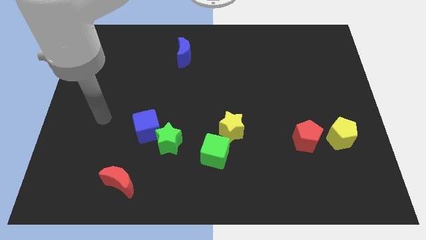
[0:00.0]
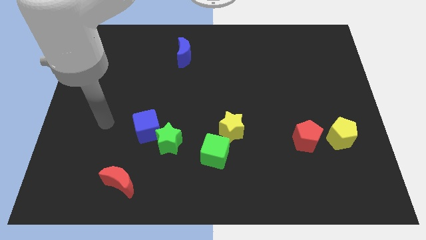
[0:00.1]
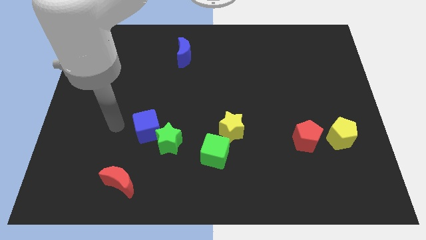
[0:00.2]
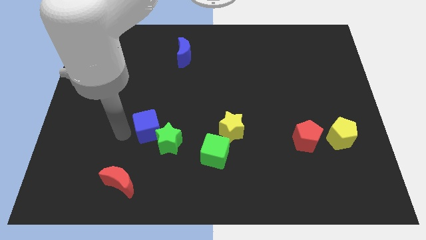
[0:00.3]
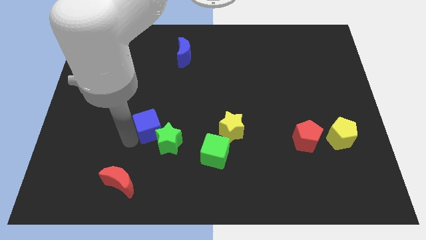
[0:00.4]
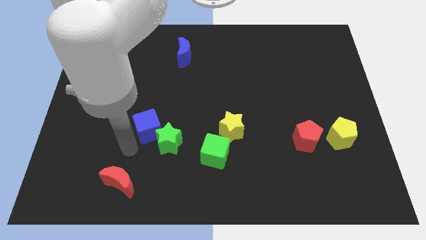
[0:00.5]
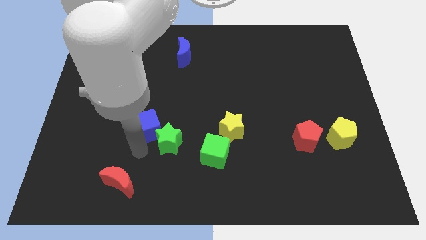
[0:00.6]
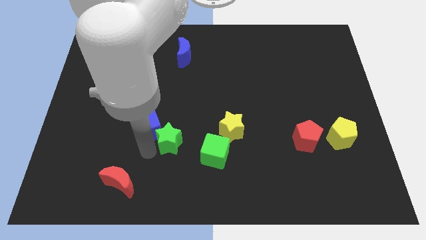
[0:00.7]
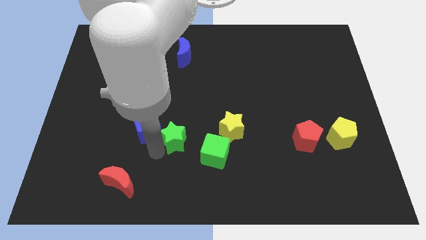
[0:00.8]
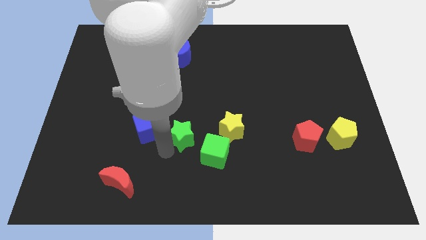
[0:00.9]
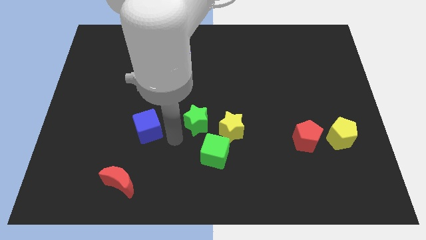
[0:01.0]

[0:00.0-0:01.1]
separate the blue cube from the green star

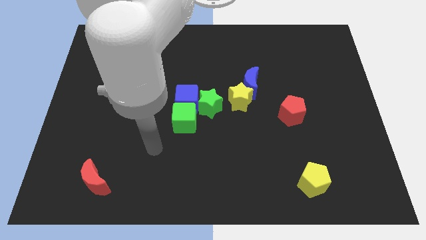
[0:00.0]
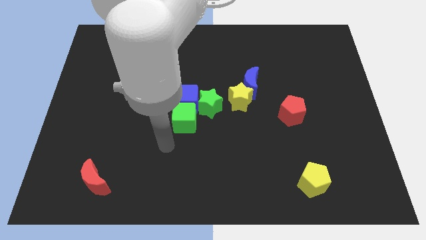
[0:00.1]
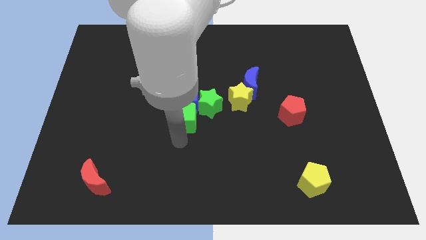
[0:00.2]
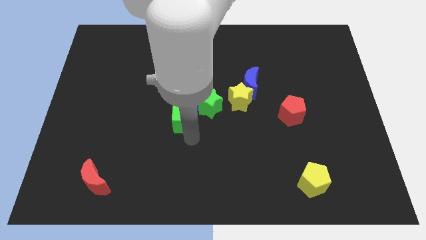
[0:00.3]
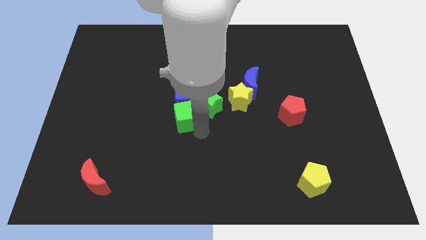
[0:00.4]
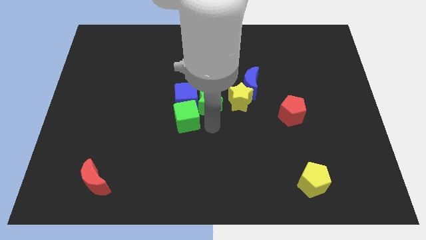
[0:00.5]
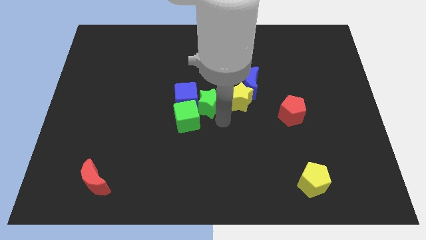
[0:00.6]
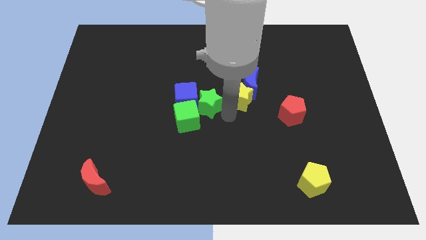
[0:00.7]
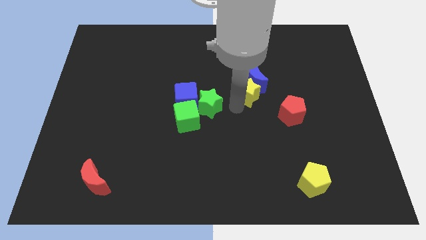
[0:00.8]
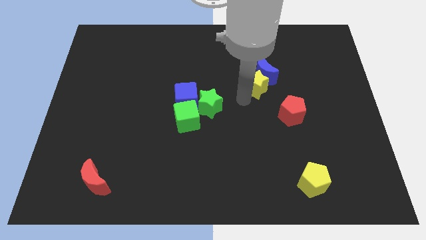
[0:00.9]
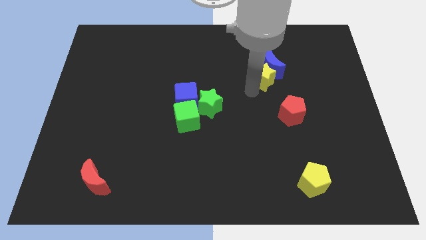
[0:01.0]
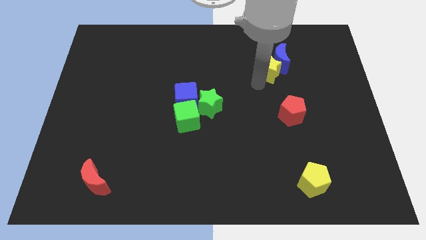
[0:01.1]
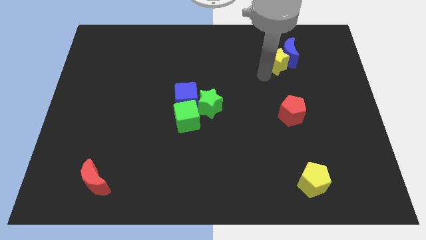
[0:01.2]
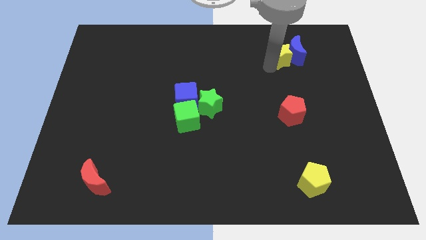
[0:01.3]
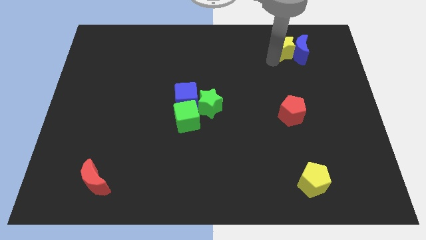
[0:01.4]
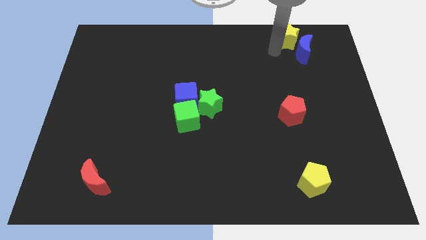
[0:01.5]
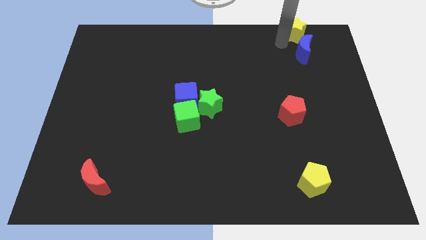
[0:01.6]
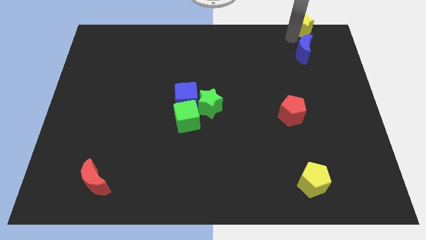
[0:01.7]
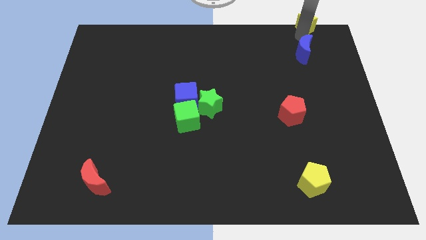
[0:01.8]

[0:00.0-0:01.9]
separate the blue moon from the yellow star

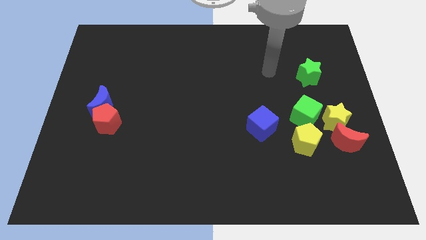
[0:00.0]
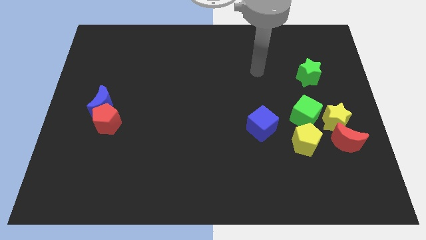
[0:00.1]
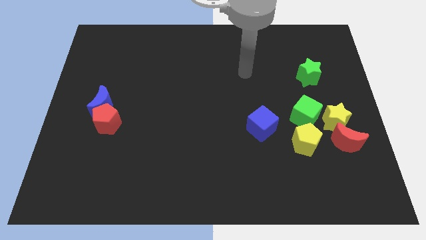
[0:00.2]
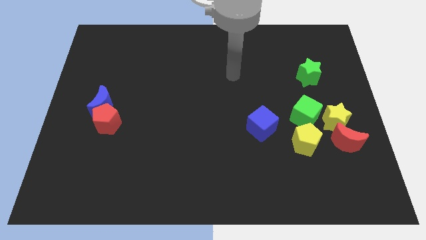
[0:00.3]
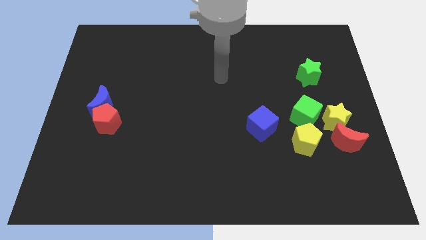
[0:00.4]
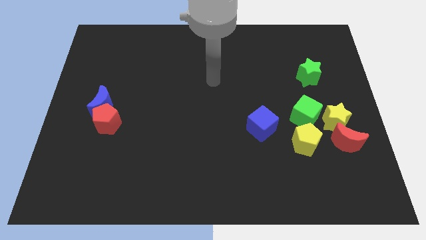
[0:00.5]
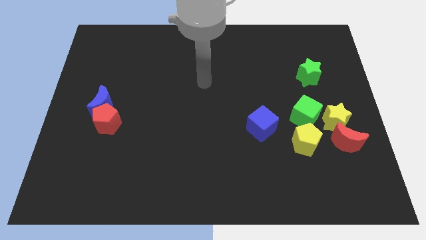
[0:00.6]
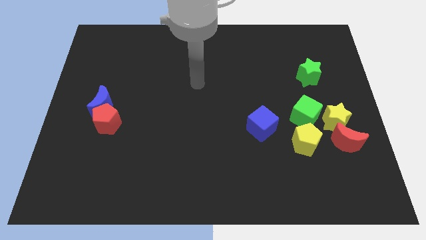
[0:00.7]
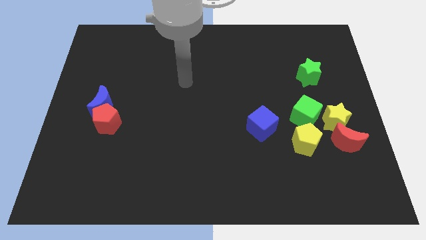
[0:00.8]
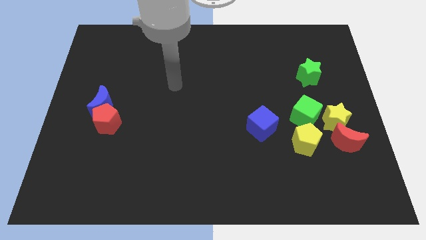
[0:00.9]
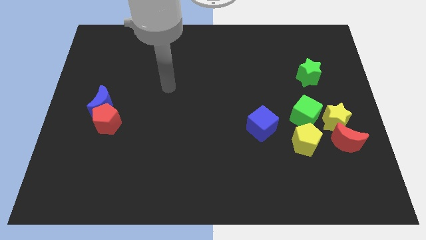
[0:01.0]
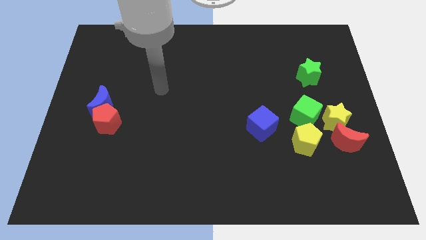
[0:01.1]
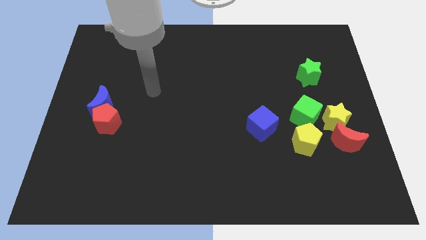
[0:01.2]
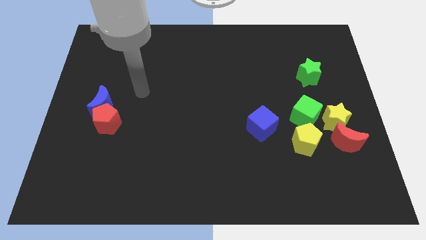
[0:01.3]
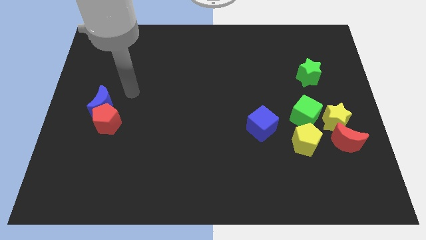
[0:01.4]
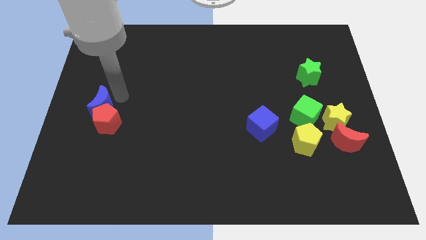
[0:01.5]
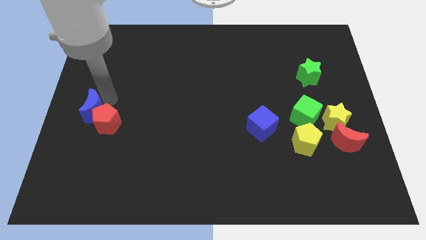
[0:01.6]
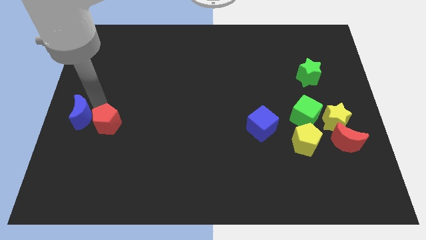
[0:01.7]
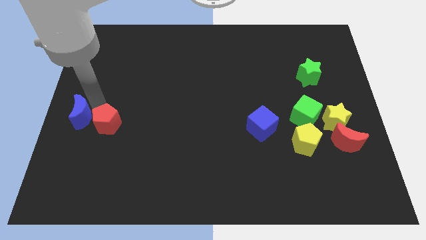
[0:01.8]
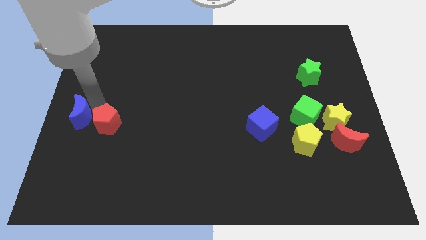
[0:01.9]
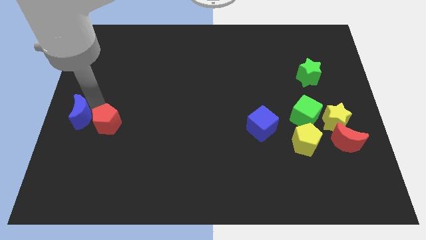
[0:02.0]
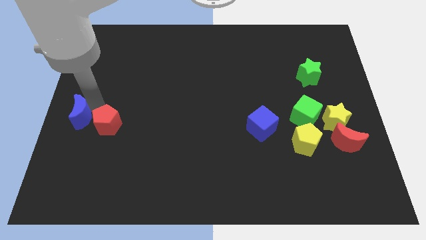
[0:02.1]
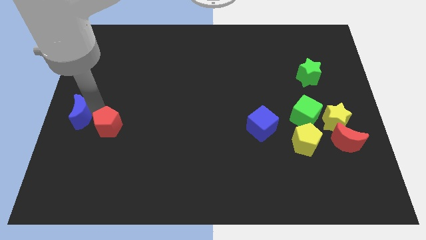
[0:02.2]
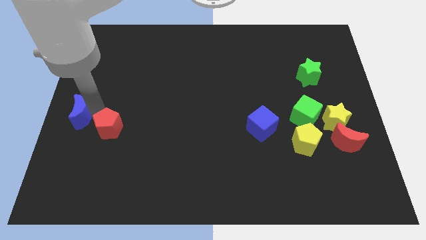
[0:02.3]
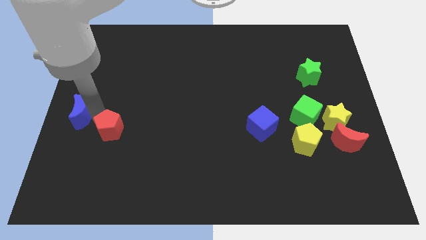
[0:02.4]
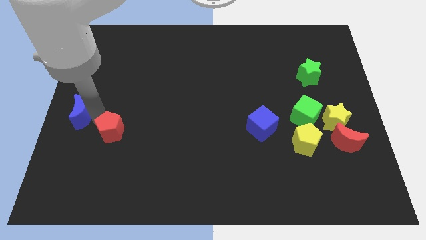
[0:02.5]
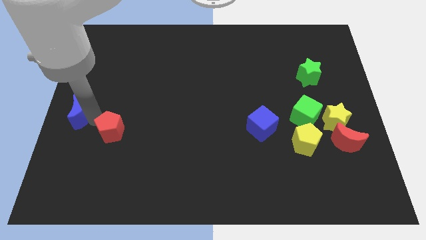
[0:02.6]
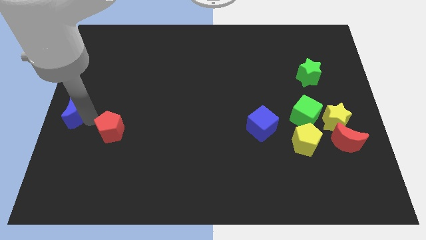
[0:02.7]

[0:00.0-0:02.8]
pull the red pentagon apart from the blue moon

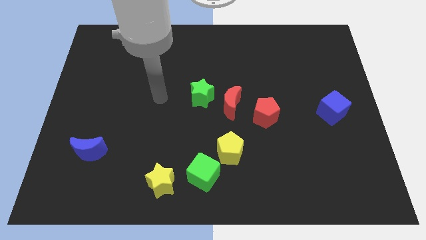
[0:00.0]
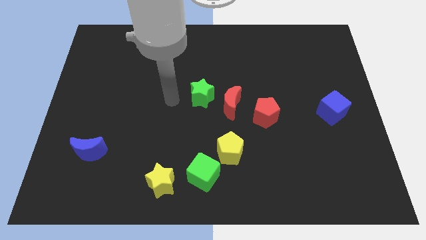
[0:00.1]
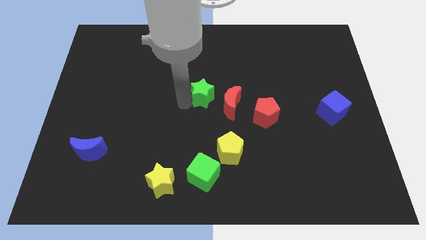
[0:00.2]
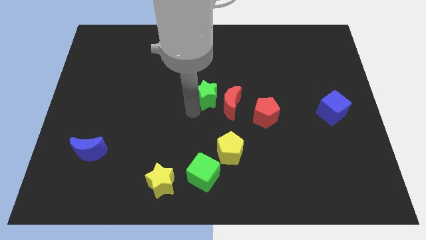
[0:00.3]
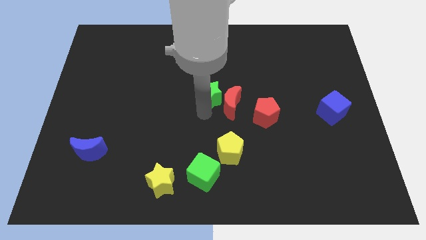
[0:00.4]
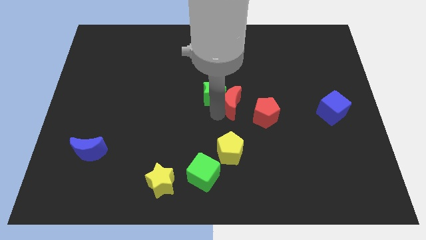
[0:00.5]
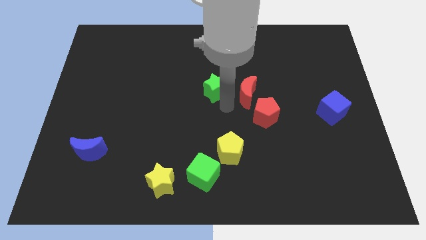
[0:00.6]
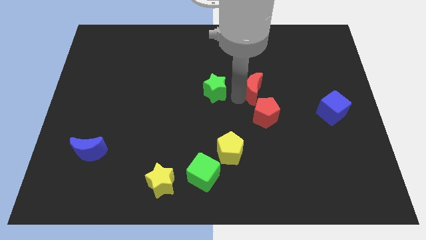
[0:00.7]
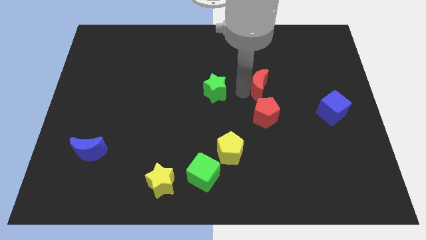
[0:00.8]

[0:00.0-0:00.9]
separate the green star from the red moon

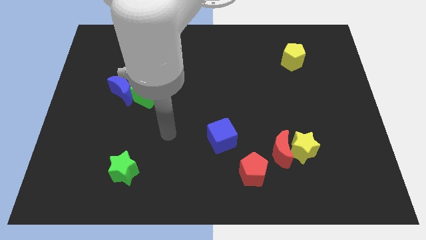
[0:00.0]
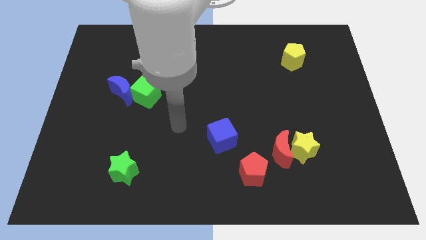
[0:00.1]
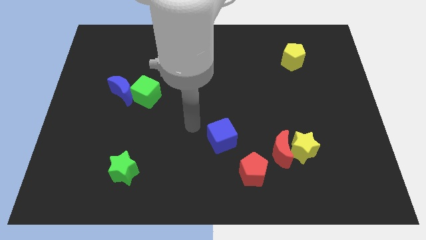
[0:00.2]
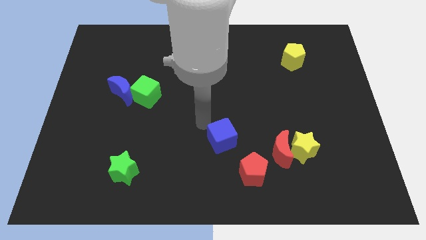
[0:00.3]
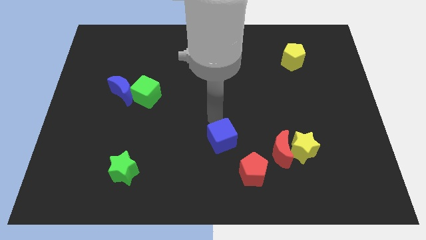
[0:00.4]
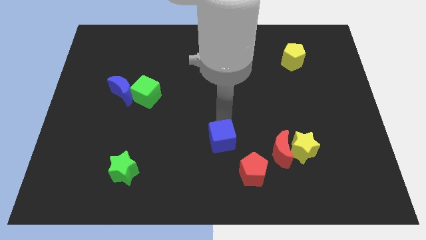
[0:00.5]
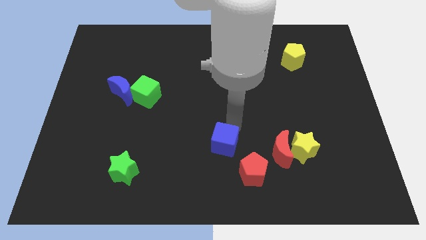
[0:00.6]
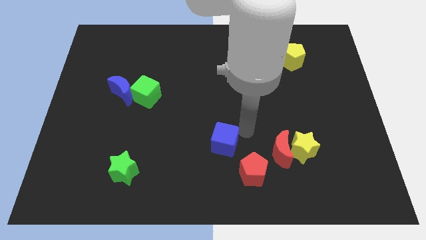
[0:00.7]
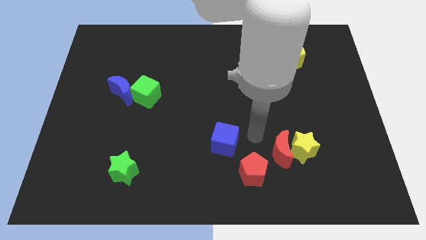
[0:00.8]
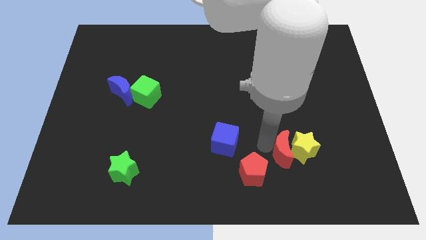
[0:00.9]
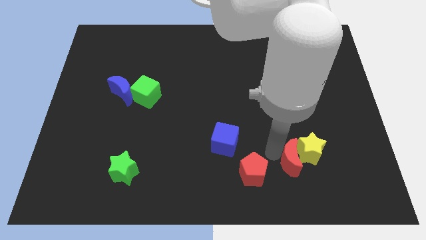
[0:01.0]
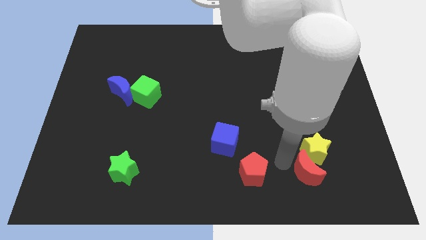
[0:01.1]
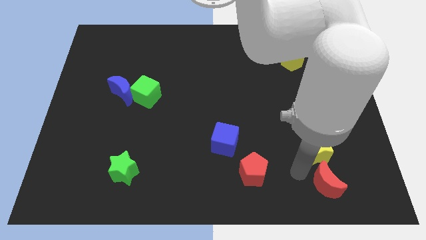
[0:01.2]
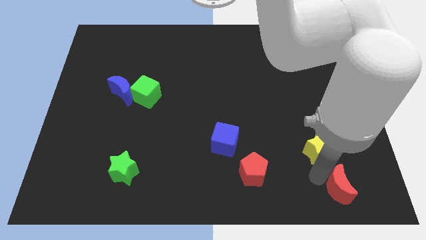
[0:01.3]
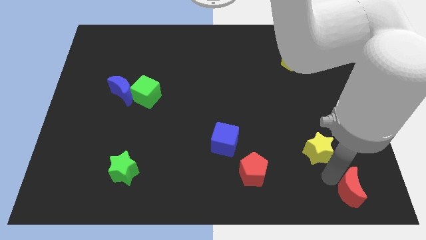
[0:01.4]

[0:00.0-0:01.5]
pull the yellow star apart from the red moon

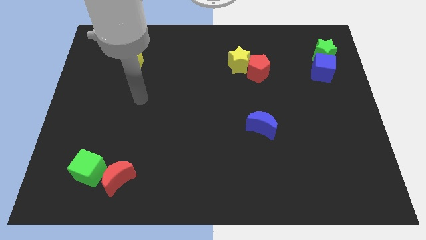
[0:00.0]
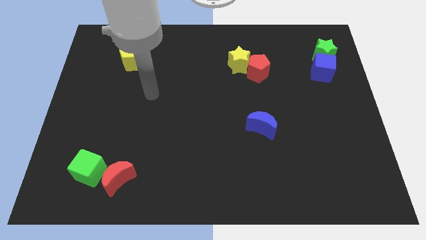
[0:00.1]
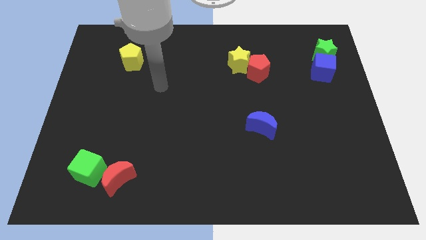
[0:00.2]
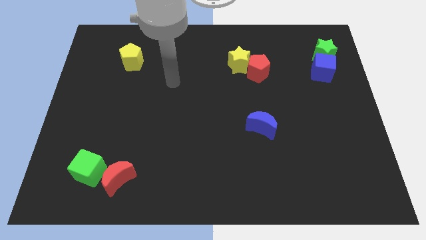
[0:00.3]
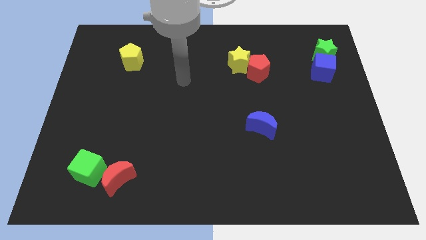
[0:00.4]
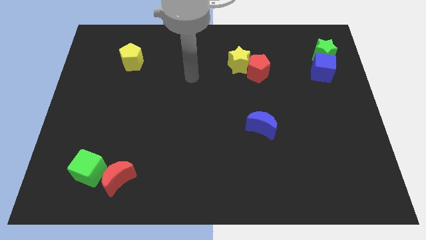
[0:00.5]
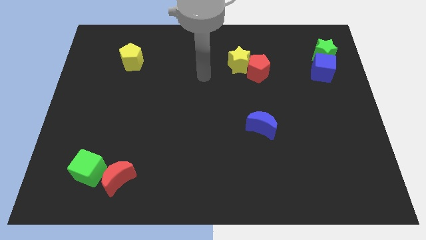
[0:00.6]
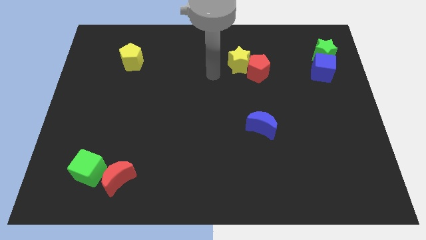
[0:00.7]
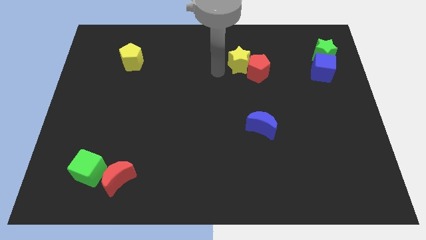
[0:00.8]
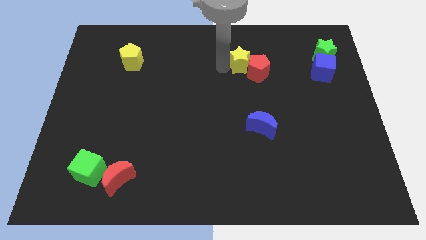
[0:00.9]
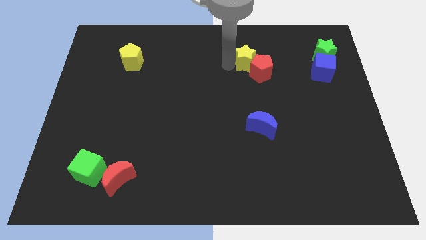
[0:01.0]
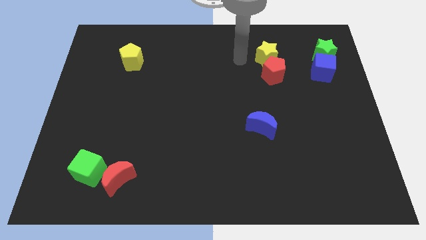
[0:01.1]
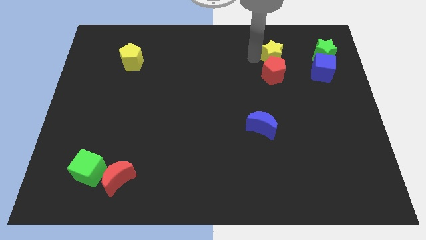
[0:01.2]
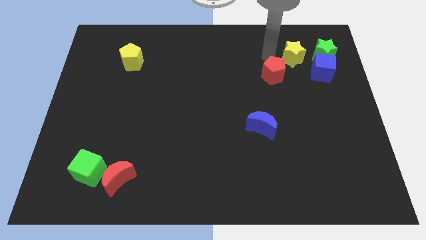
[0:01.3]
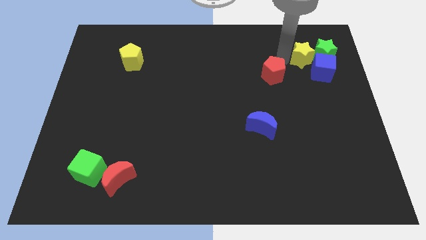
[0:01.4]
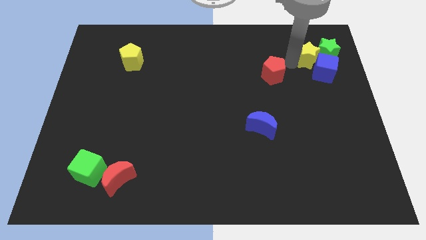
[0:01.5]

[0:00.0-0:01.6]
separate the red pentagon from the yellow star
